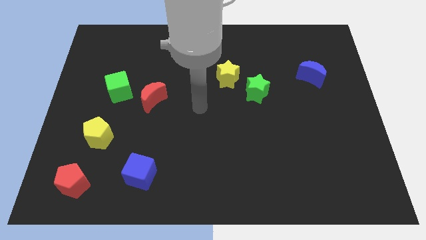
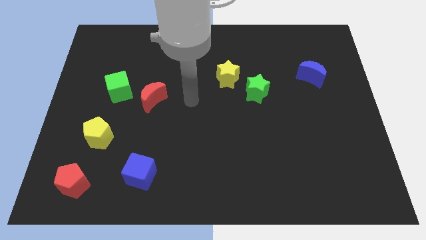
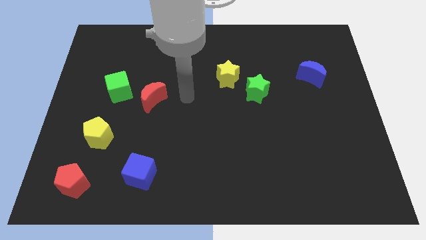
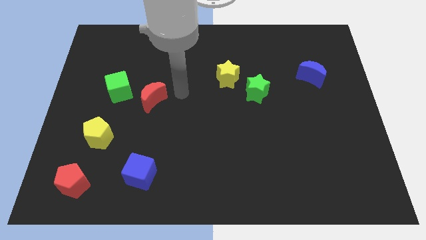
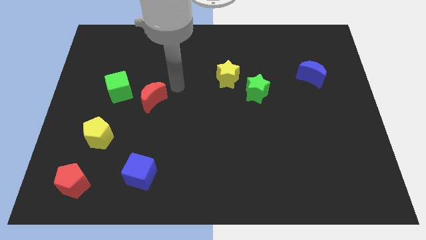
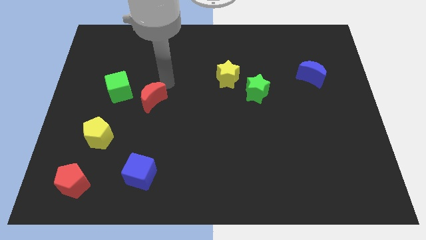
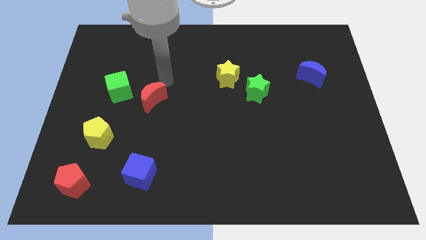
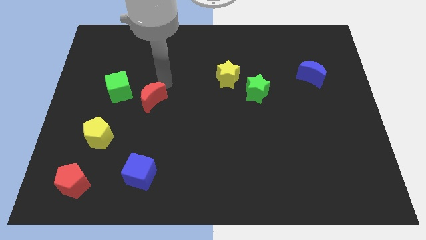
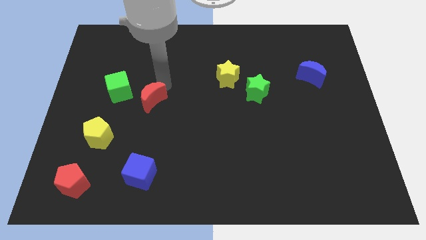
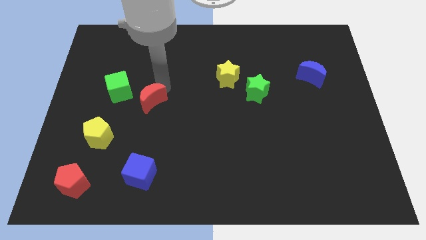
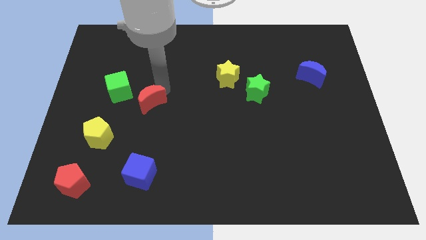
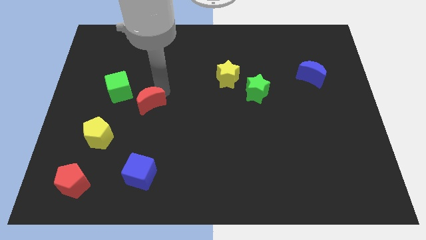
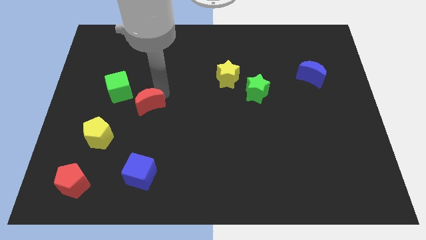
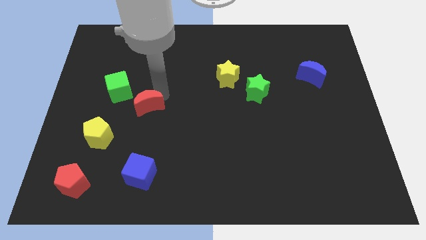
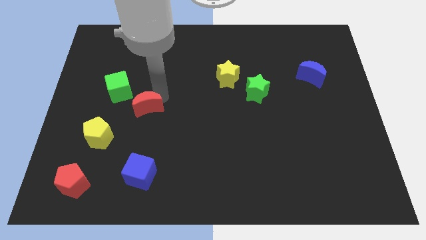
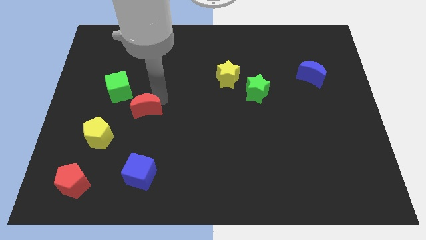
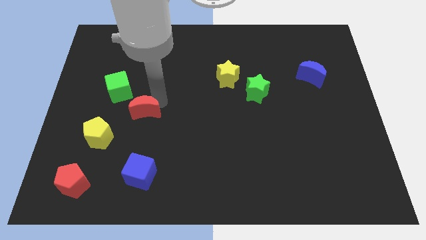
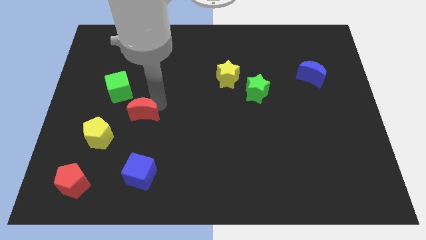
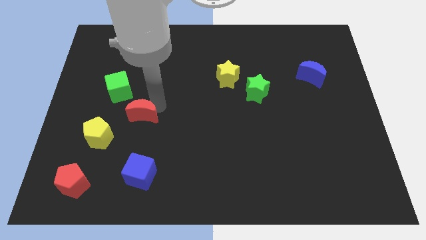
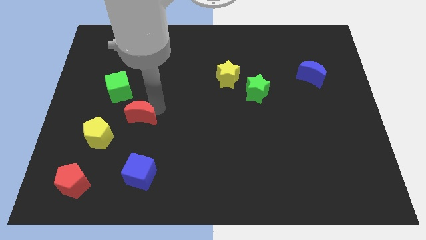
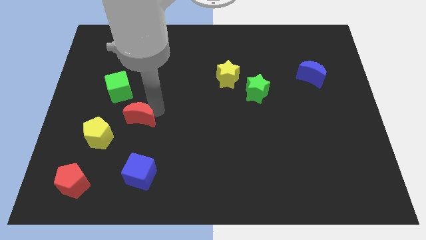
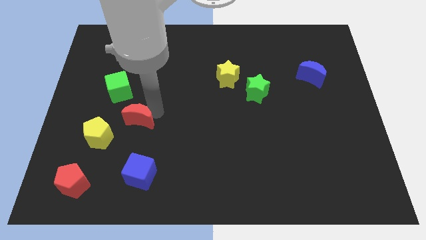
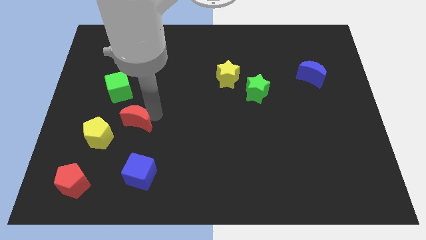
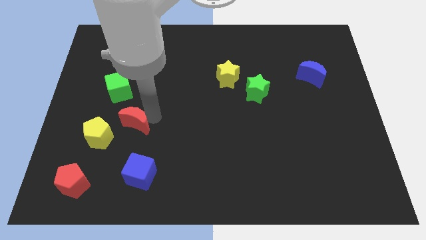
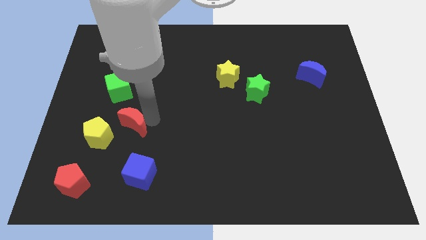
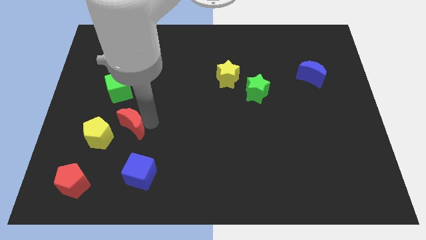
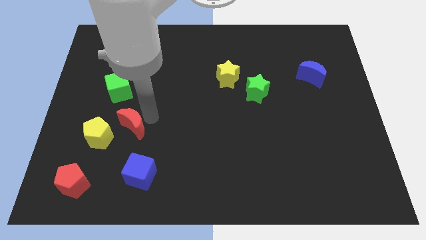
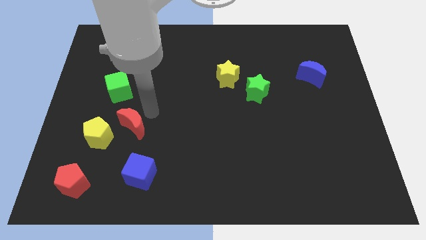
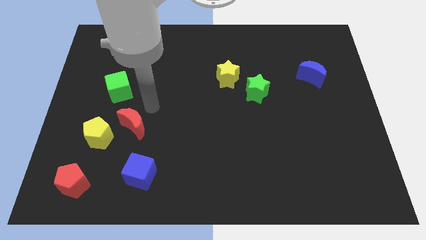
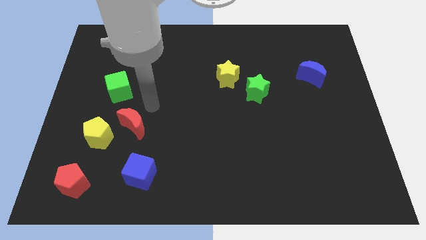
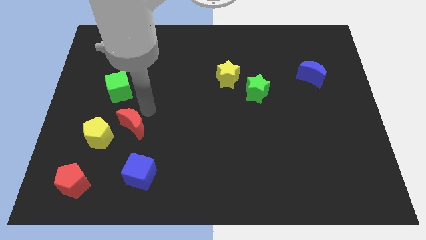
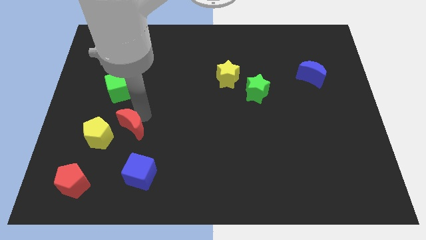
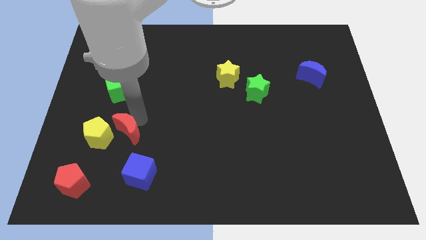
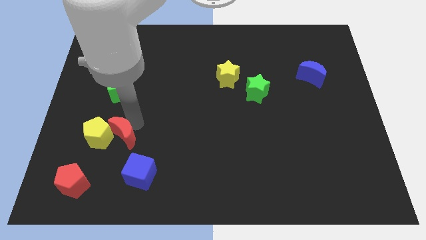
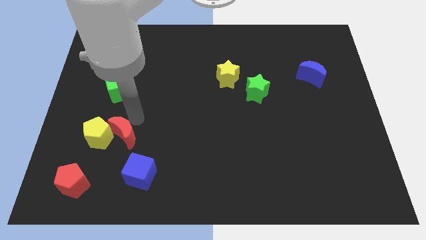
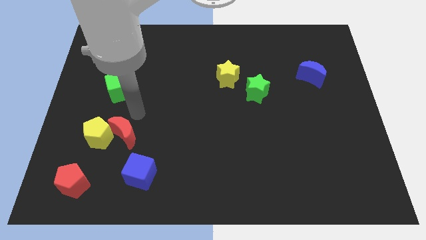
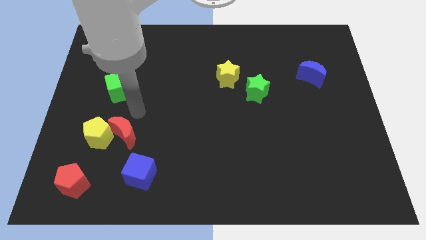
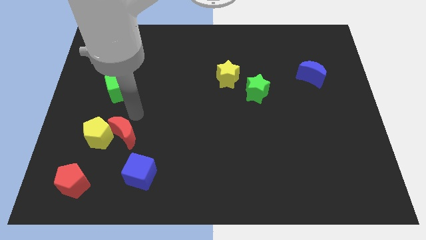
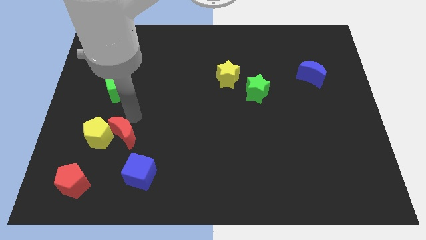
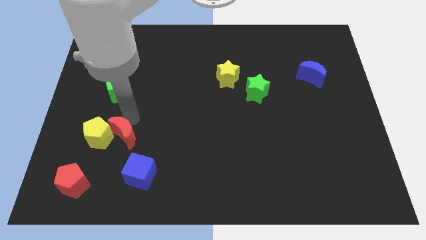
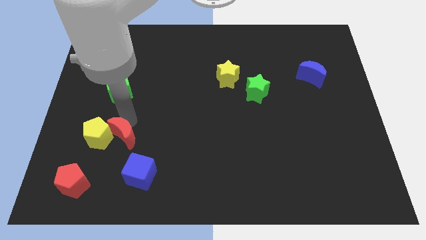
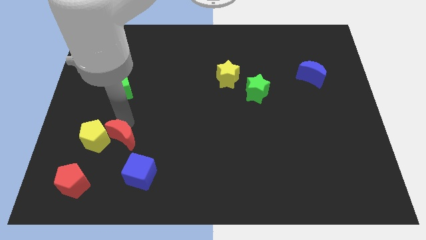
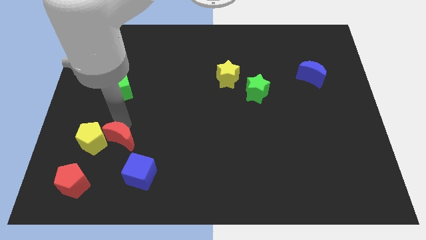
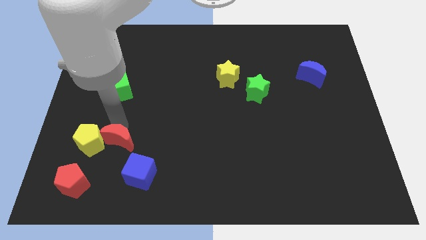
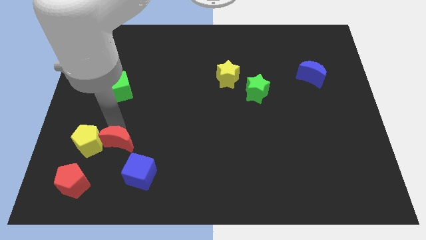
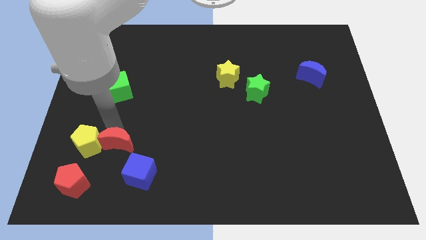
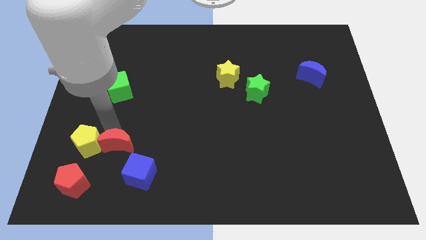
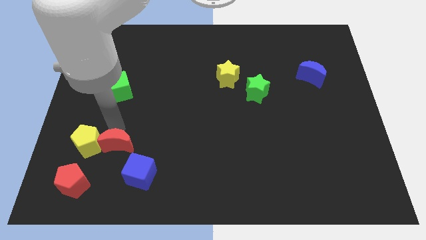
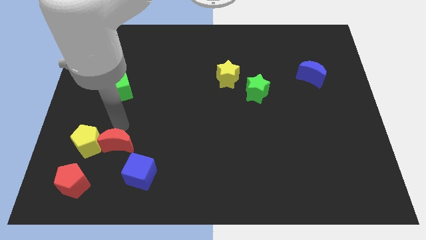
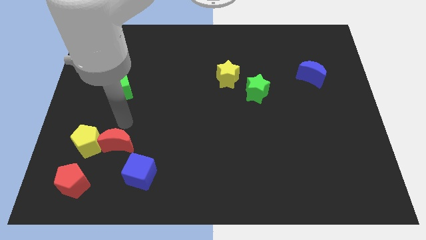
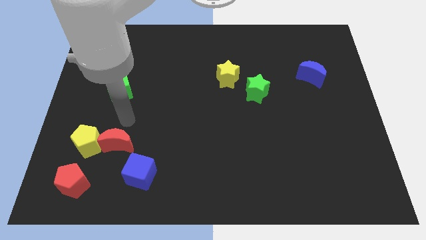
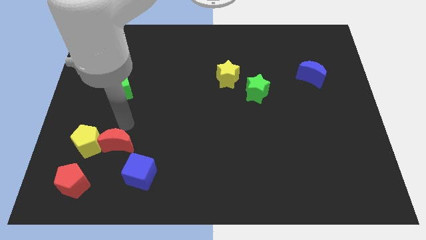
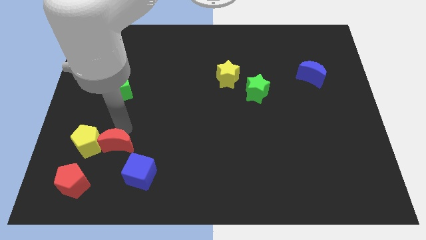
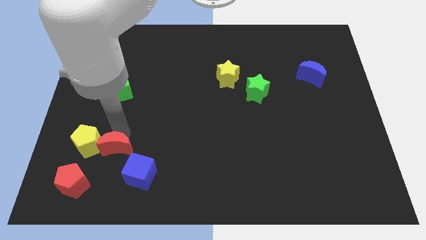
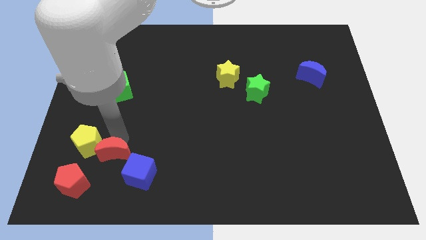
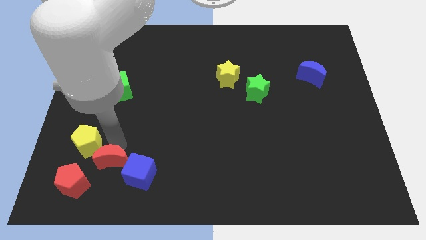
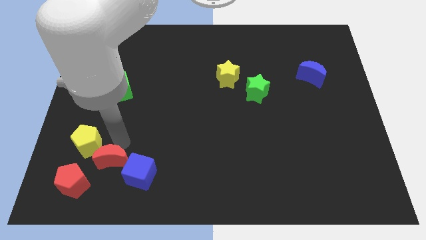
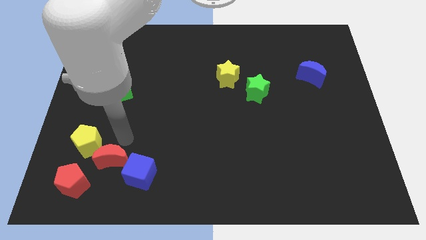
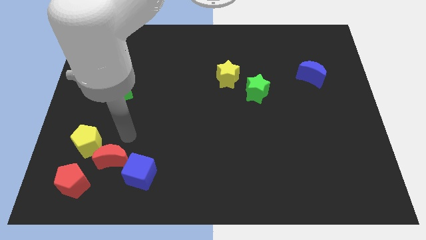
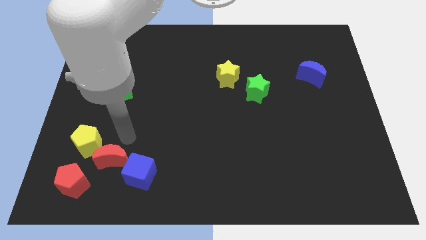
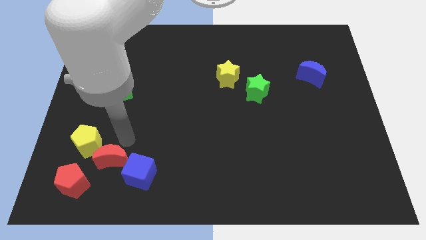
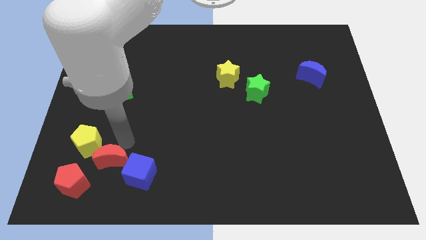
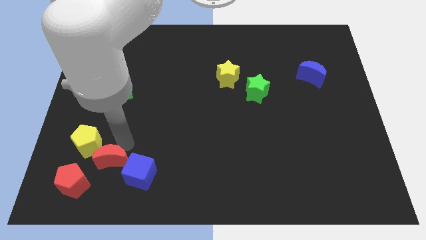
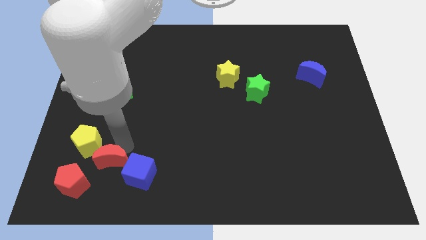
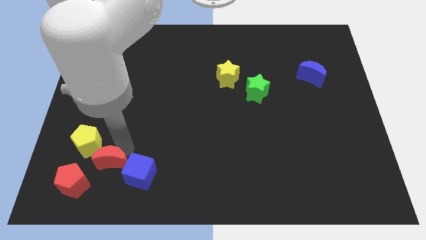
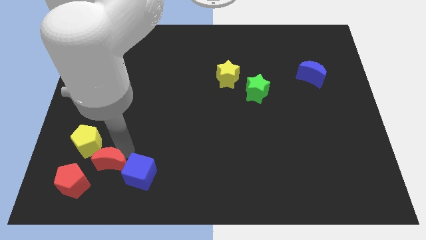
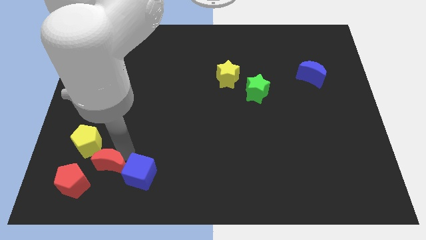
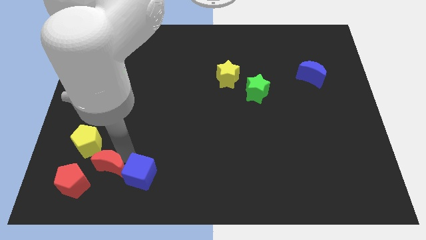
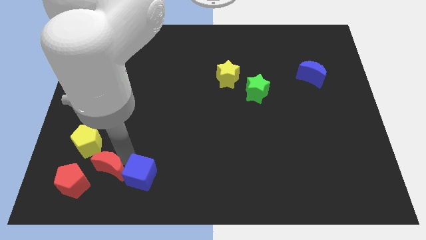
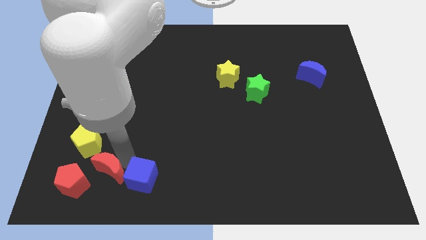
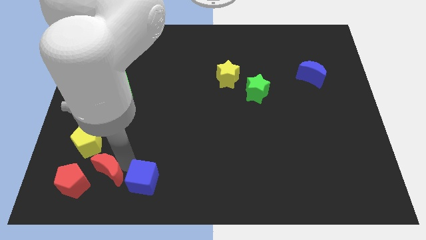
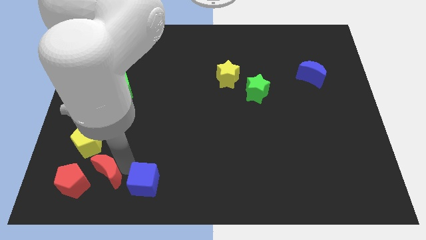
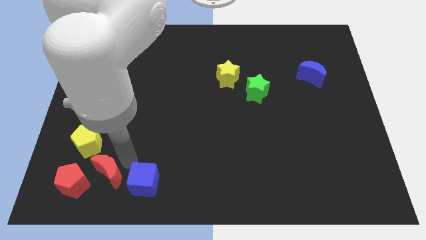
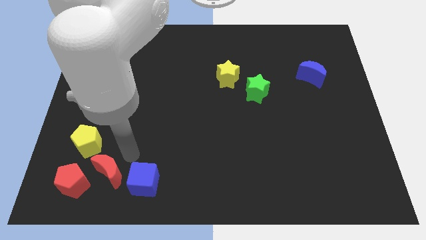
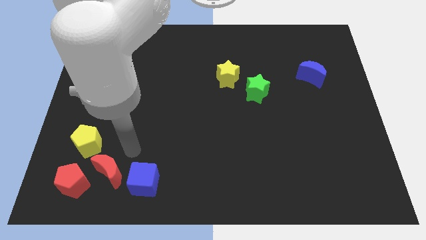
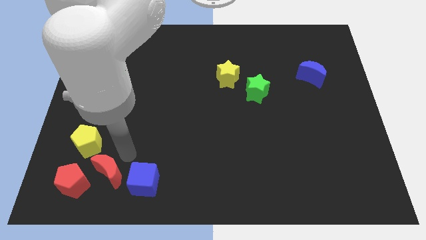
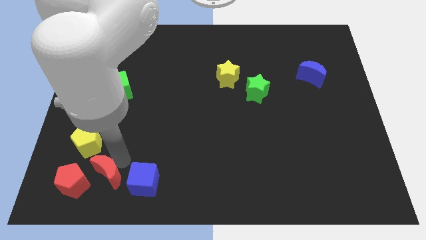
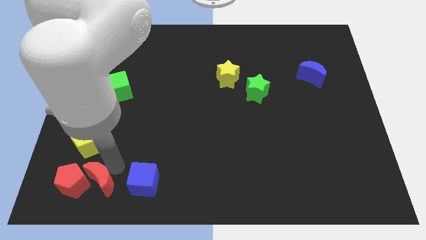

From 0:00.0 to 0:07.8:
put the red moon below the yellow pentagon
